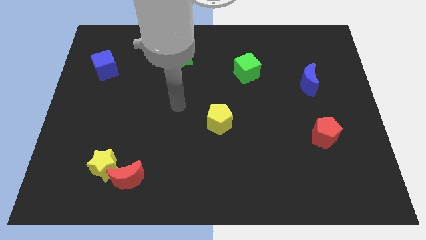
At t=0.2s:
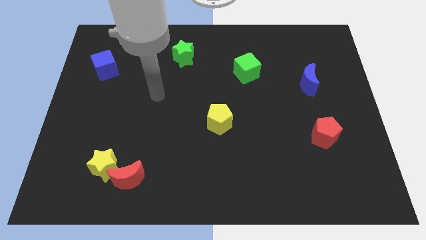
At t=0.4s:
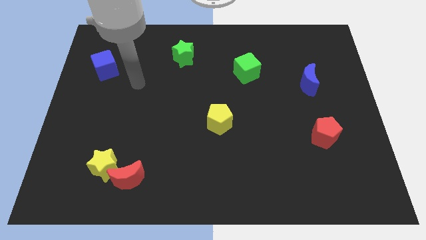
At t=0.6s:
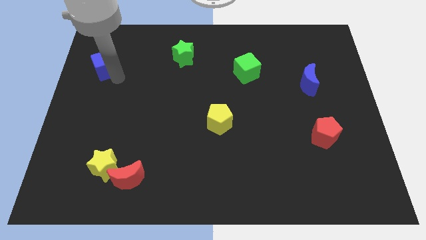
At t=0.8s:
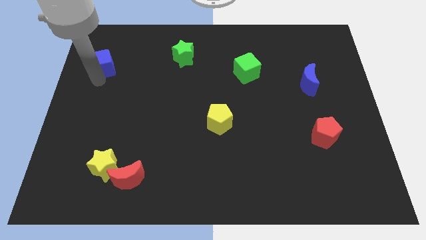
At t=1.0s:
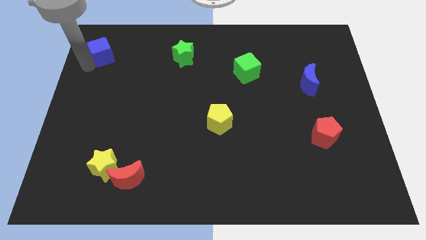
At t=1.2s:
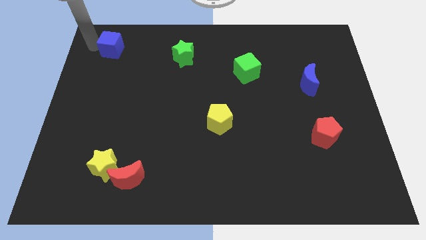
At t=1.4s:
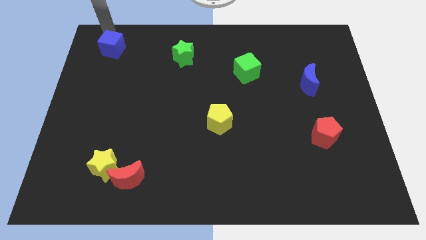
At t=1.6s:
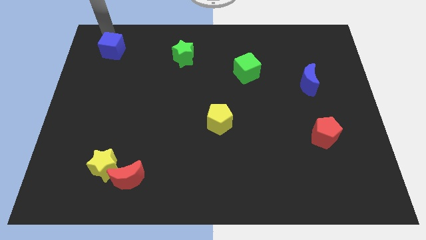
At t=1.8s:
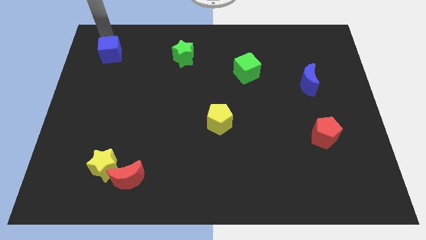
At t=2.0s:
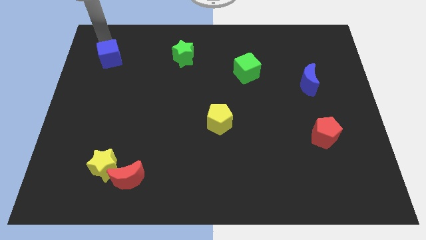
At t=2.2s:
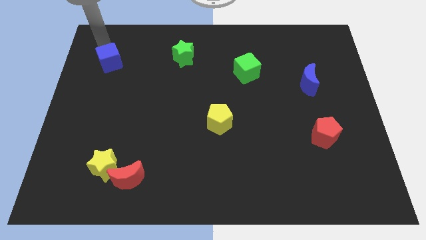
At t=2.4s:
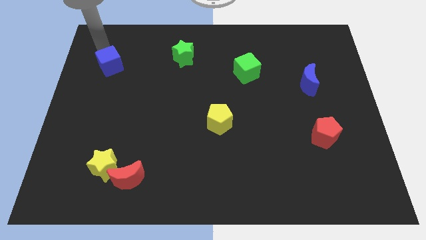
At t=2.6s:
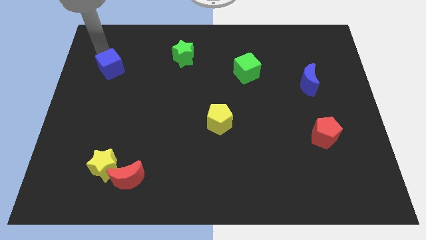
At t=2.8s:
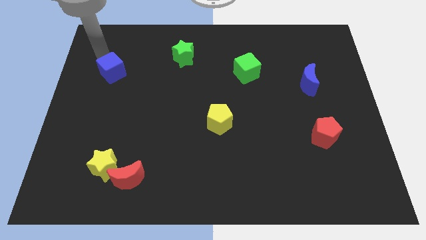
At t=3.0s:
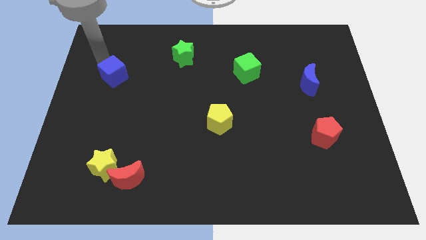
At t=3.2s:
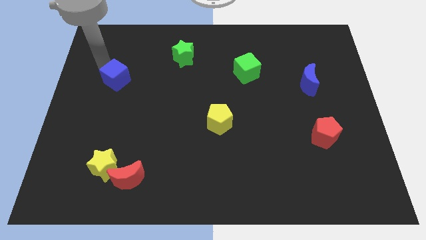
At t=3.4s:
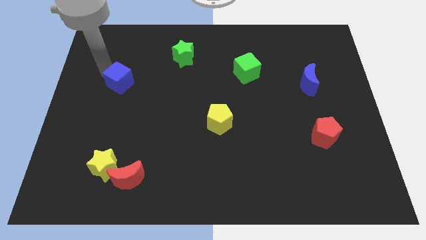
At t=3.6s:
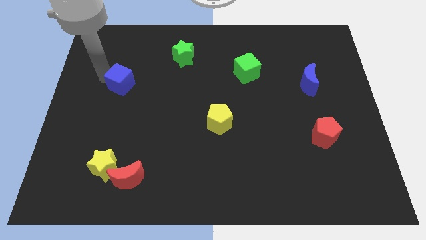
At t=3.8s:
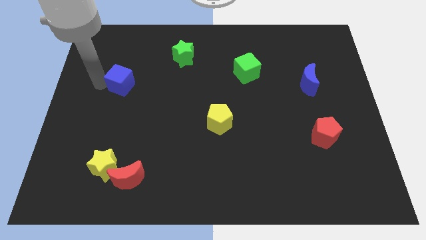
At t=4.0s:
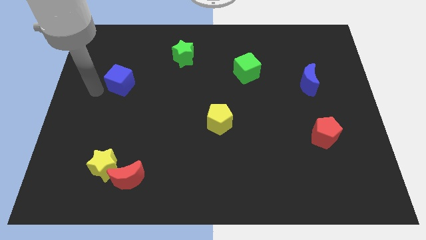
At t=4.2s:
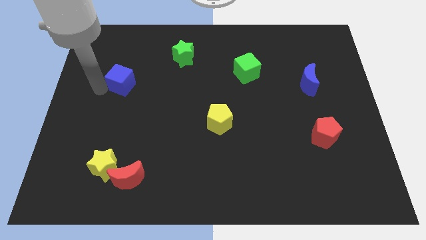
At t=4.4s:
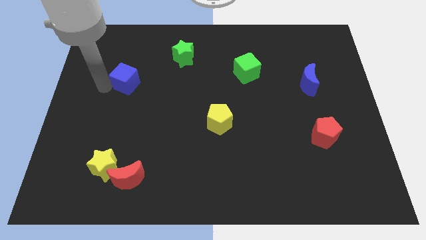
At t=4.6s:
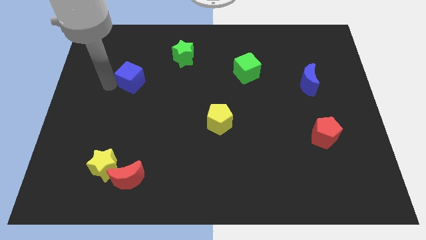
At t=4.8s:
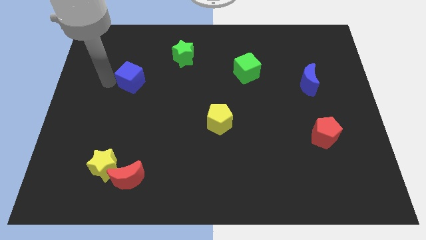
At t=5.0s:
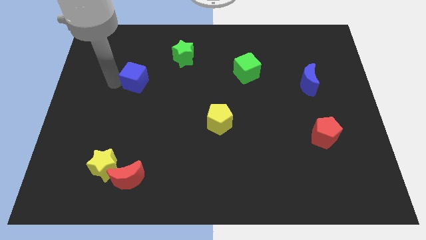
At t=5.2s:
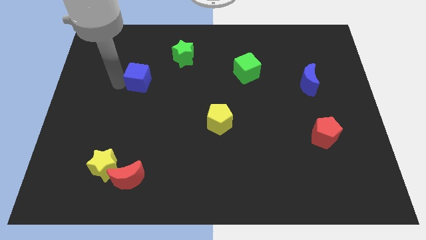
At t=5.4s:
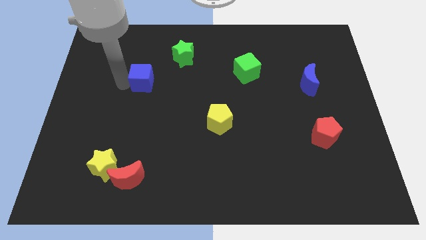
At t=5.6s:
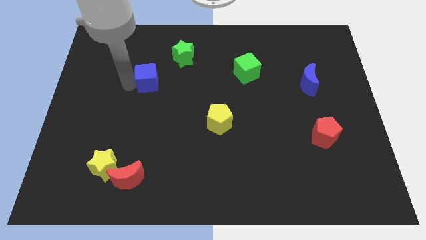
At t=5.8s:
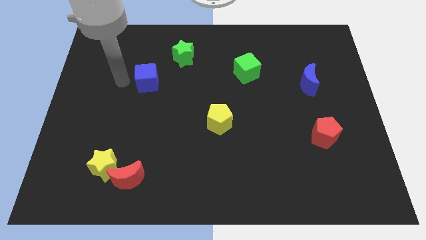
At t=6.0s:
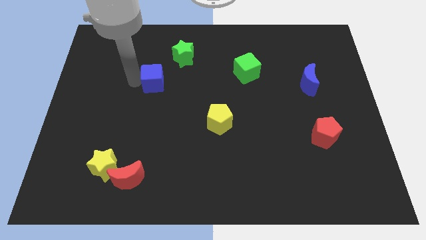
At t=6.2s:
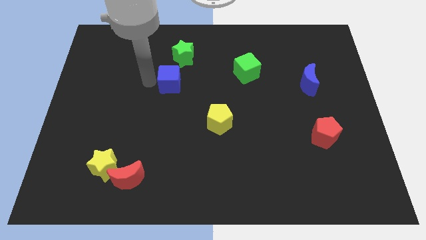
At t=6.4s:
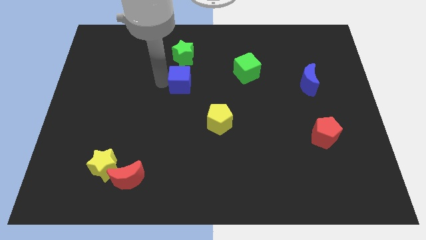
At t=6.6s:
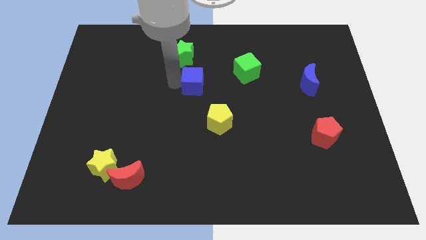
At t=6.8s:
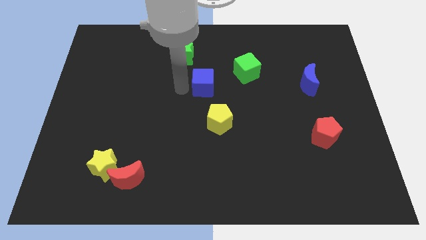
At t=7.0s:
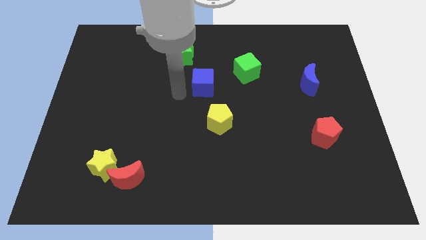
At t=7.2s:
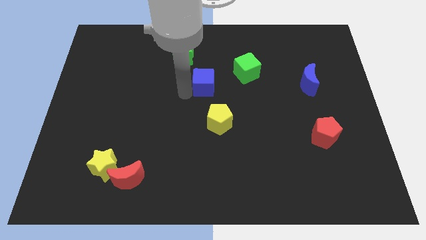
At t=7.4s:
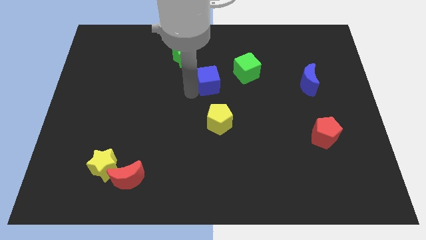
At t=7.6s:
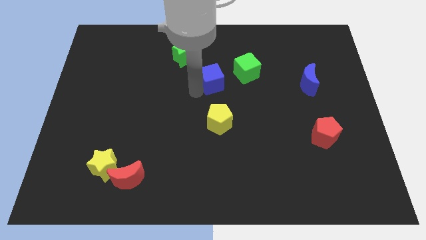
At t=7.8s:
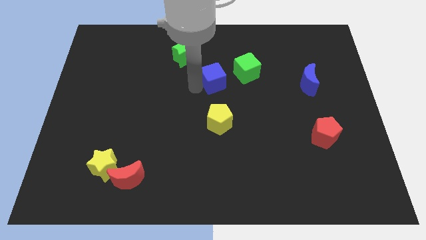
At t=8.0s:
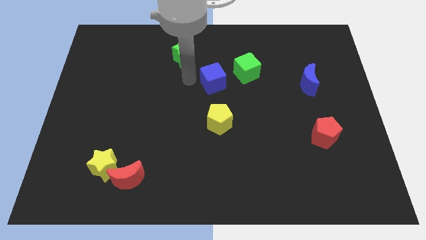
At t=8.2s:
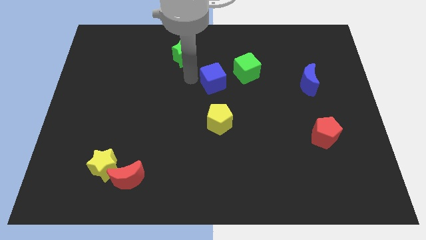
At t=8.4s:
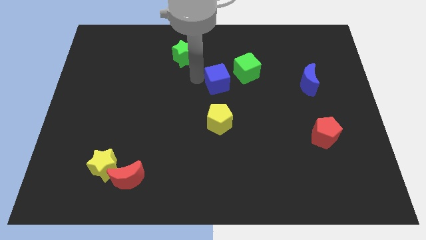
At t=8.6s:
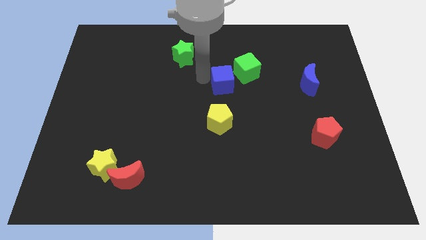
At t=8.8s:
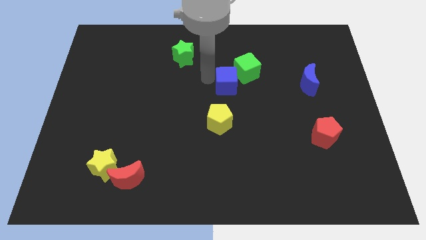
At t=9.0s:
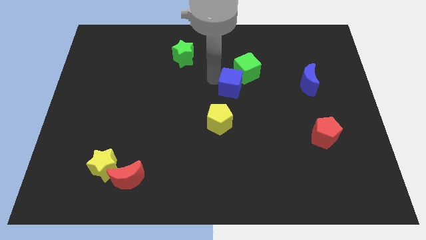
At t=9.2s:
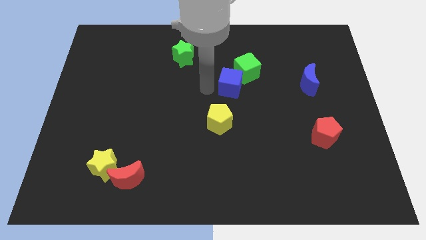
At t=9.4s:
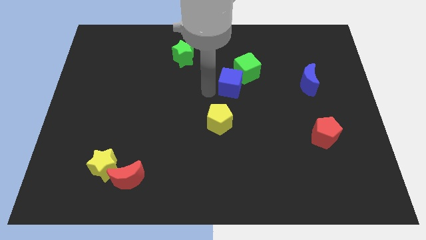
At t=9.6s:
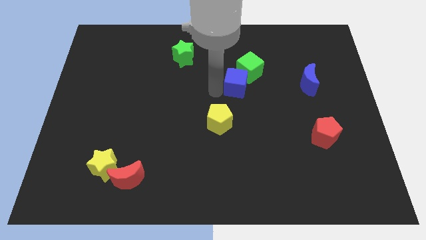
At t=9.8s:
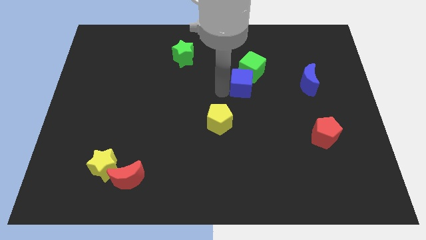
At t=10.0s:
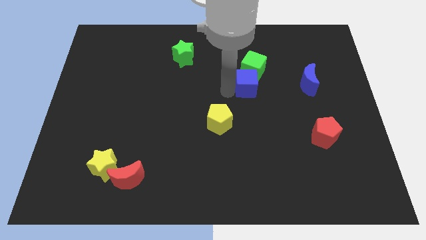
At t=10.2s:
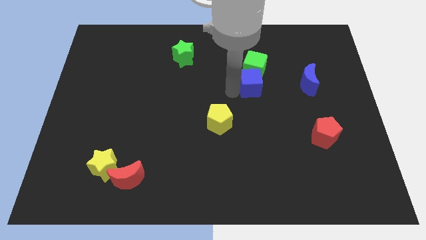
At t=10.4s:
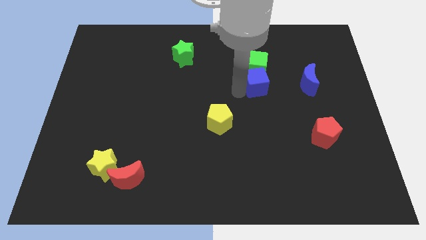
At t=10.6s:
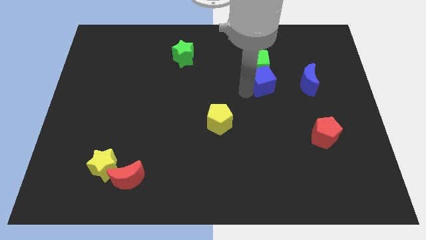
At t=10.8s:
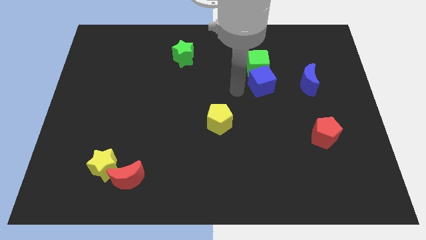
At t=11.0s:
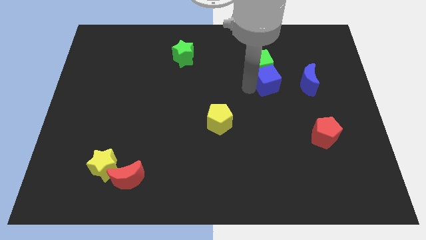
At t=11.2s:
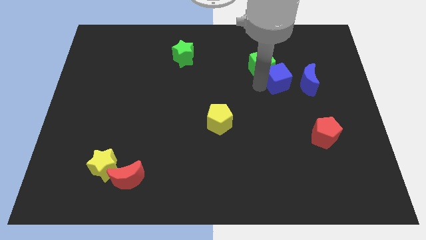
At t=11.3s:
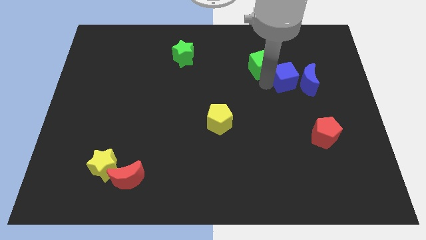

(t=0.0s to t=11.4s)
slide the blue cube to the blue moon
